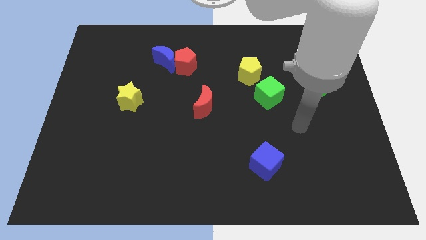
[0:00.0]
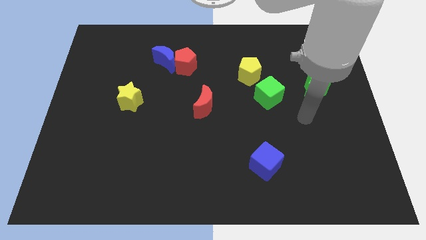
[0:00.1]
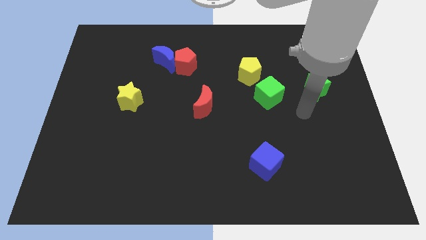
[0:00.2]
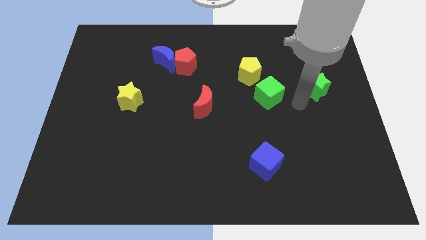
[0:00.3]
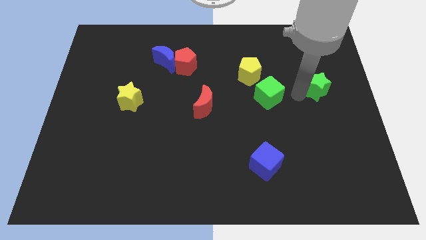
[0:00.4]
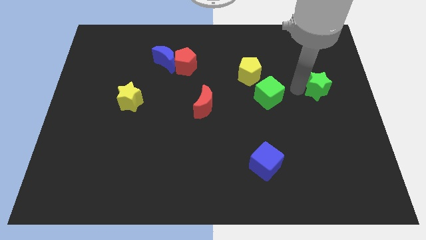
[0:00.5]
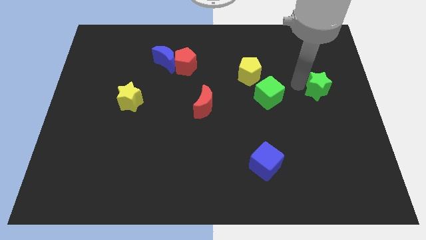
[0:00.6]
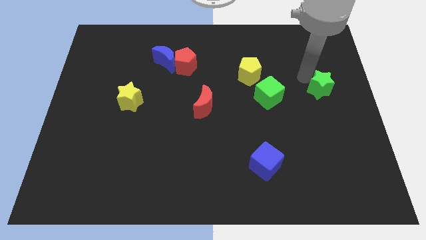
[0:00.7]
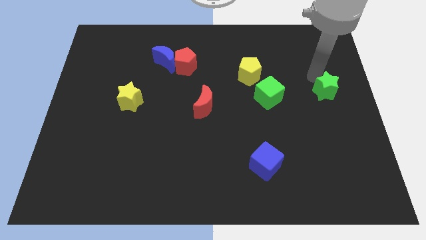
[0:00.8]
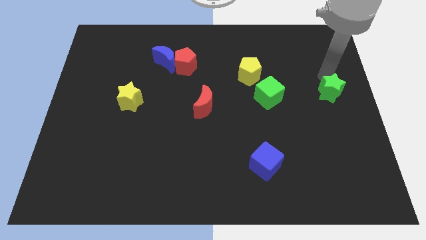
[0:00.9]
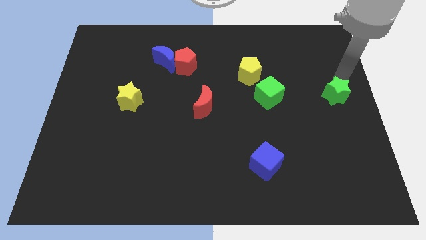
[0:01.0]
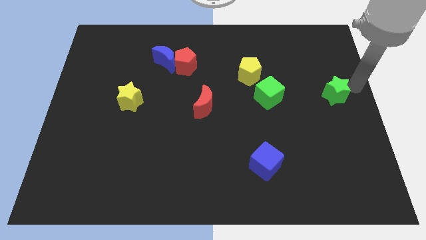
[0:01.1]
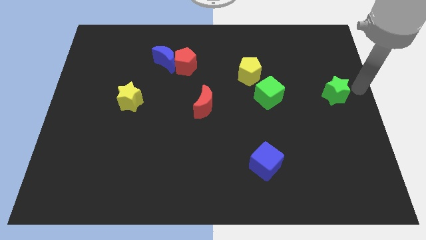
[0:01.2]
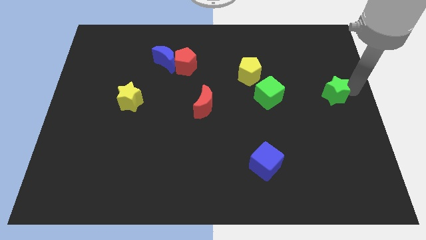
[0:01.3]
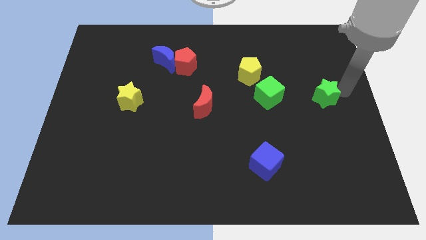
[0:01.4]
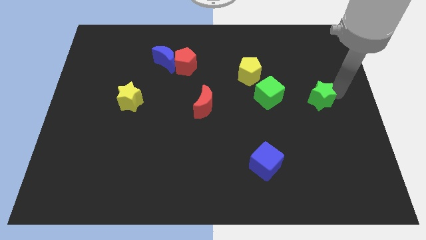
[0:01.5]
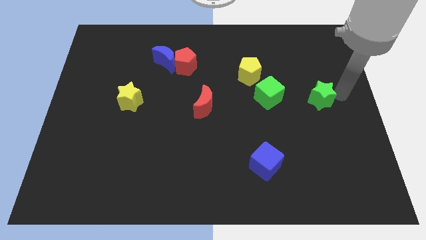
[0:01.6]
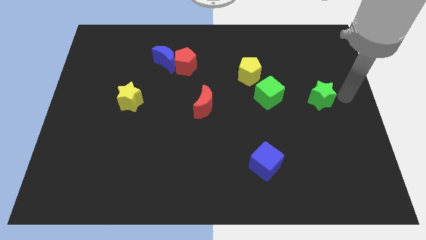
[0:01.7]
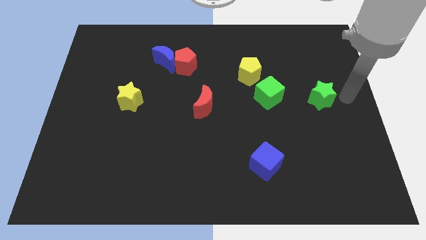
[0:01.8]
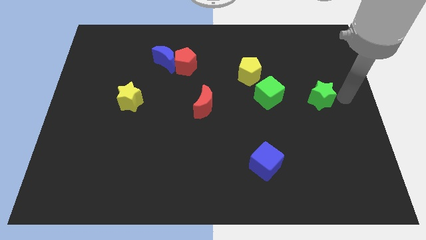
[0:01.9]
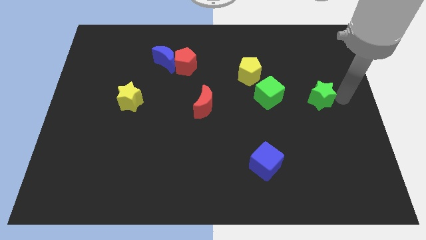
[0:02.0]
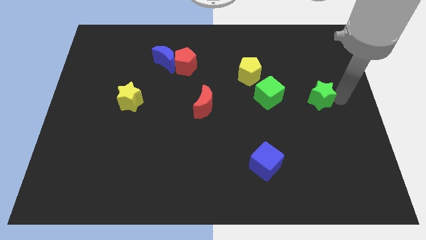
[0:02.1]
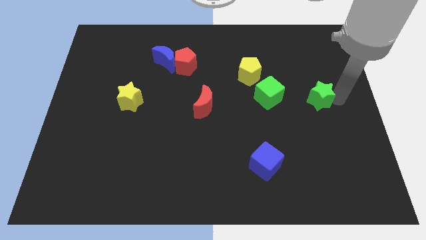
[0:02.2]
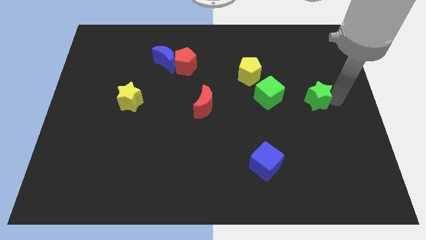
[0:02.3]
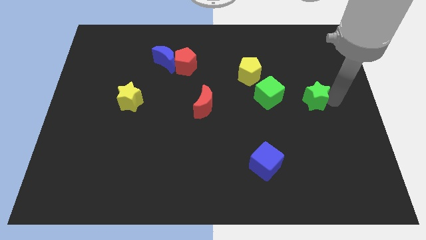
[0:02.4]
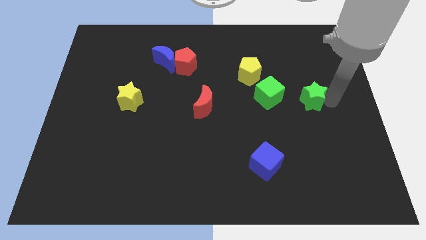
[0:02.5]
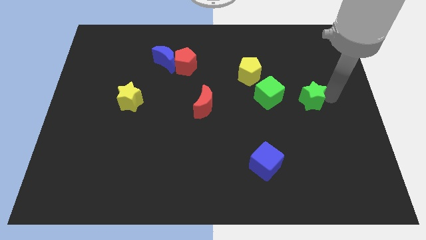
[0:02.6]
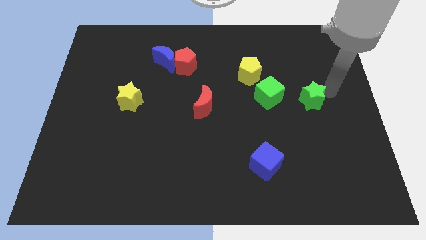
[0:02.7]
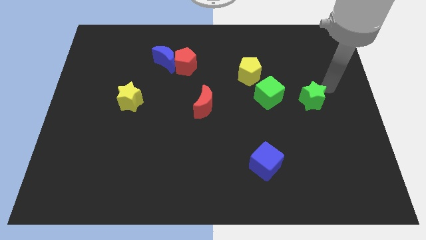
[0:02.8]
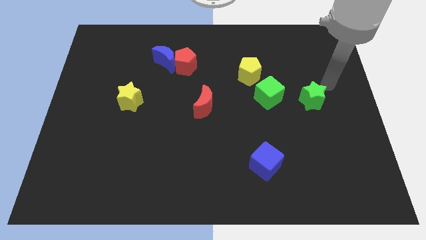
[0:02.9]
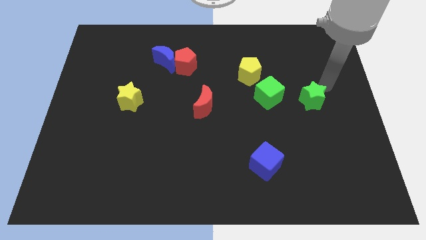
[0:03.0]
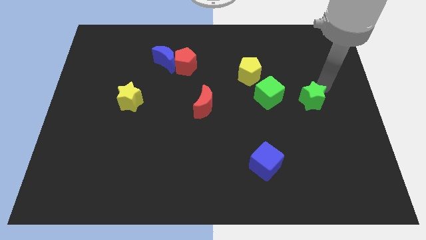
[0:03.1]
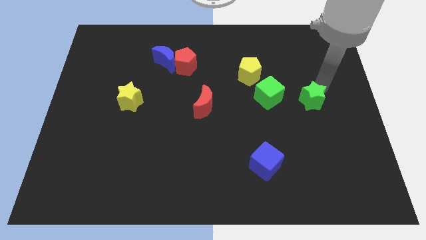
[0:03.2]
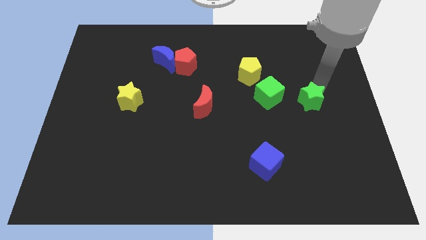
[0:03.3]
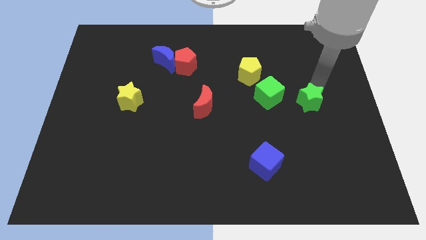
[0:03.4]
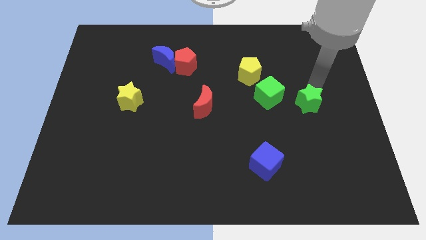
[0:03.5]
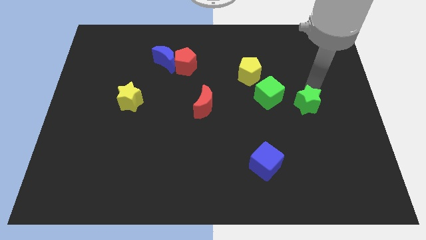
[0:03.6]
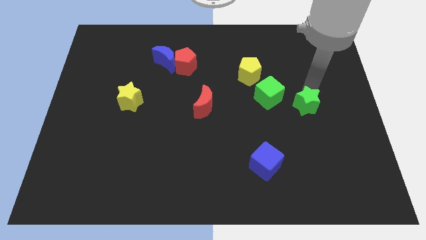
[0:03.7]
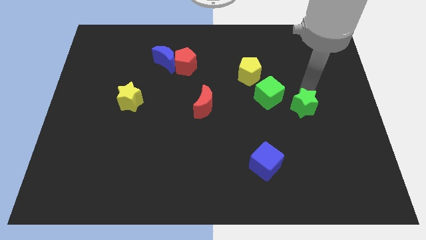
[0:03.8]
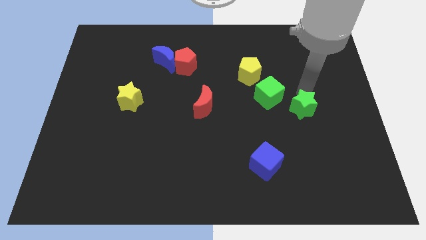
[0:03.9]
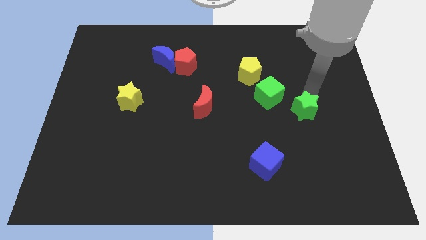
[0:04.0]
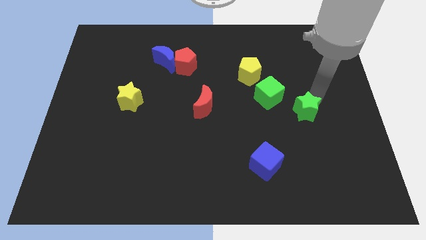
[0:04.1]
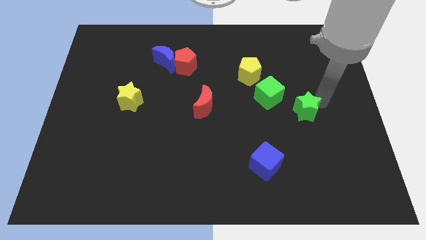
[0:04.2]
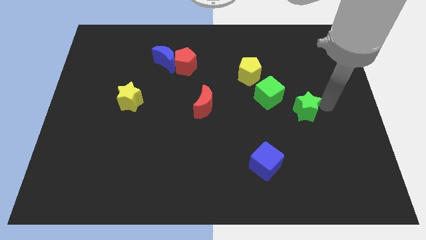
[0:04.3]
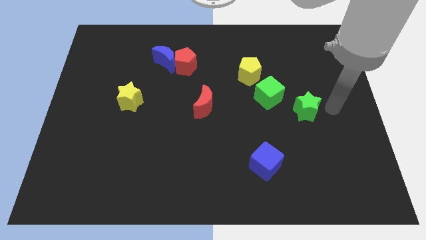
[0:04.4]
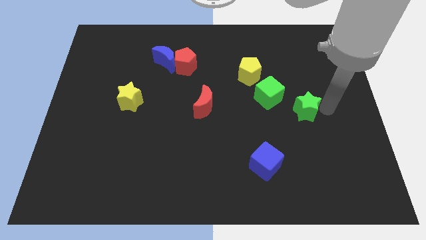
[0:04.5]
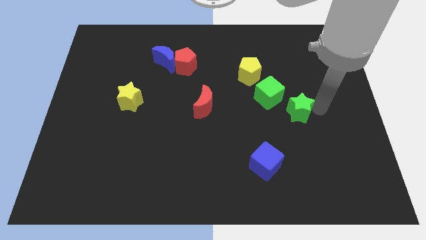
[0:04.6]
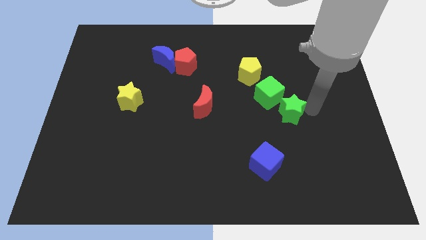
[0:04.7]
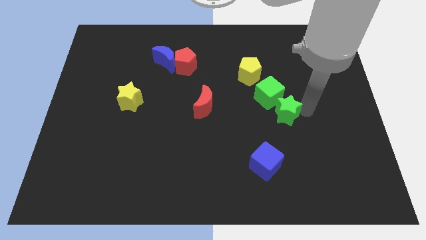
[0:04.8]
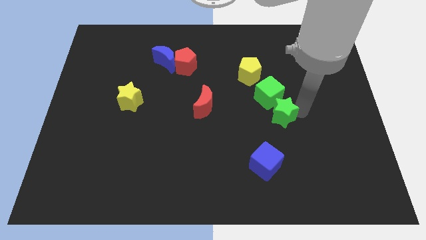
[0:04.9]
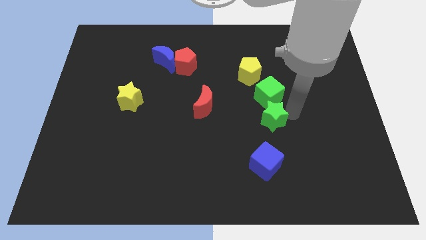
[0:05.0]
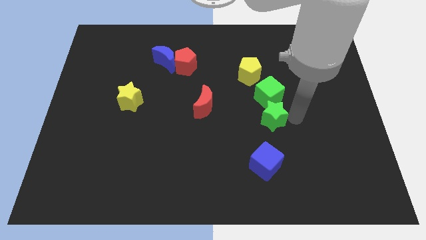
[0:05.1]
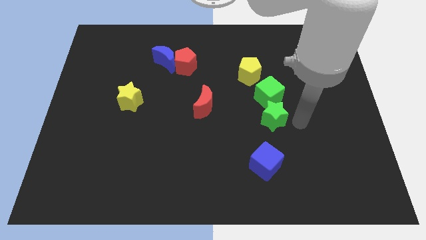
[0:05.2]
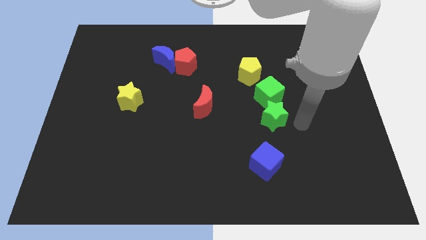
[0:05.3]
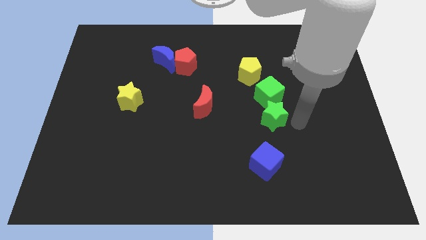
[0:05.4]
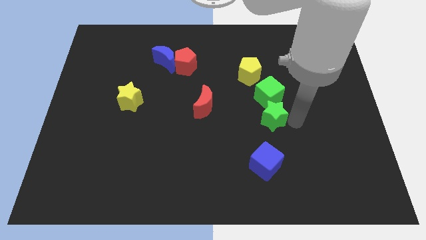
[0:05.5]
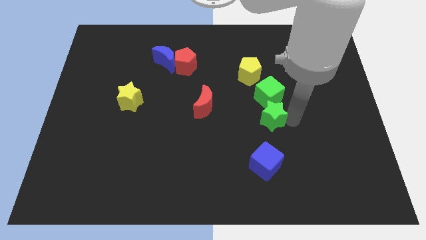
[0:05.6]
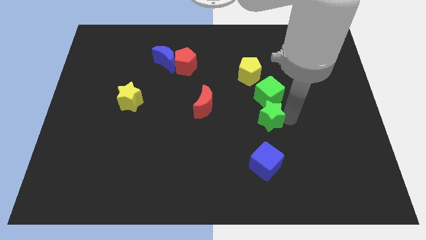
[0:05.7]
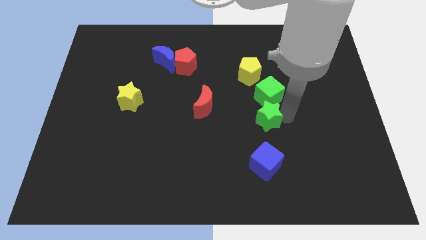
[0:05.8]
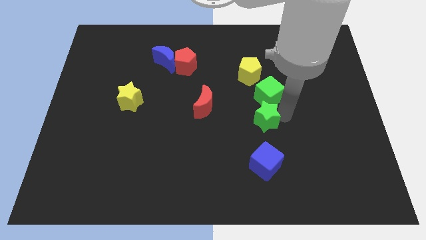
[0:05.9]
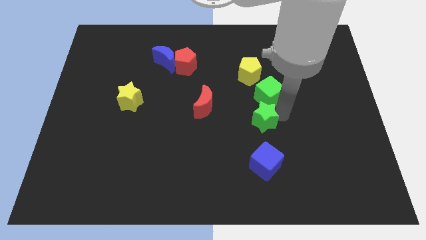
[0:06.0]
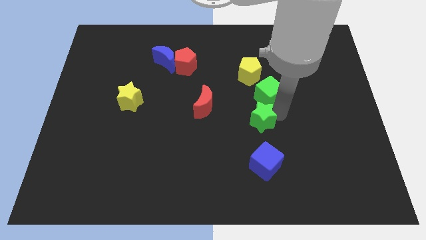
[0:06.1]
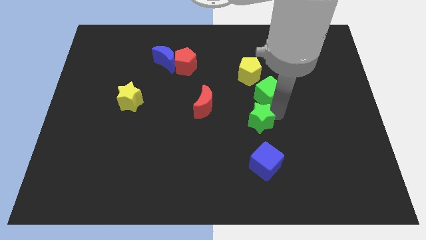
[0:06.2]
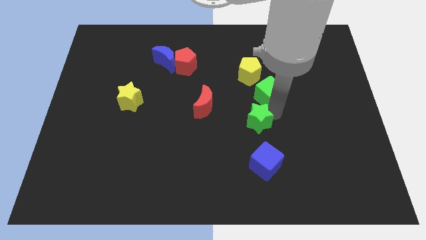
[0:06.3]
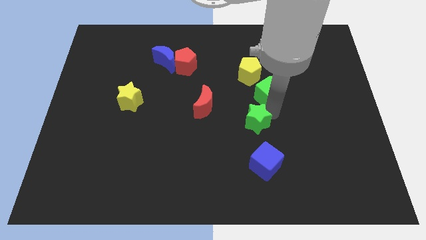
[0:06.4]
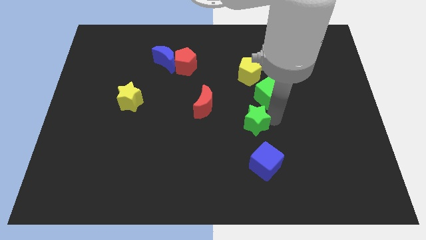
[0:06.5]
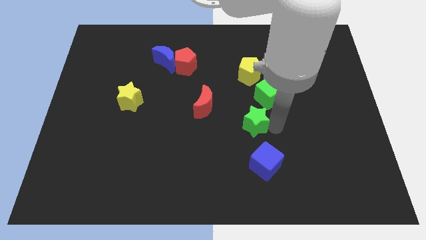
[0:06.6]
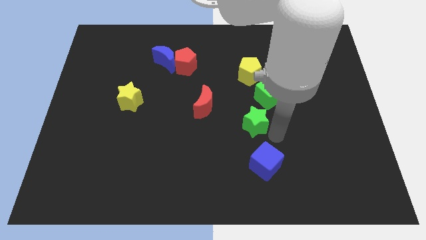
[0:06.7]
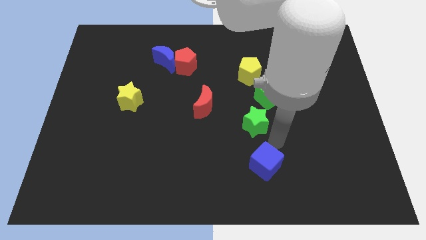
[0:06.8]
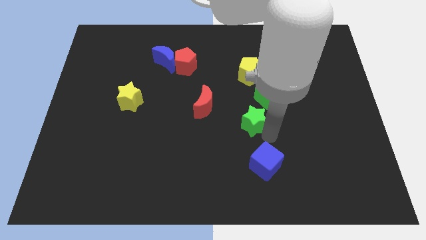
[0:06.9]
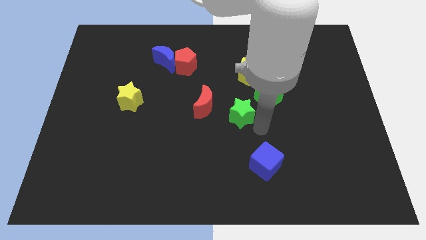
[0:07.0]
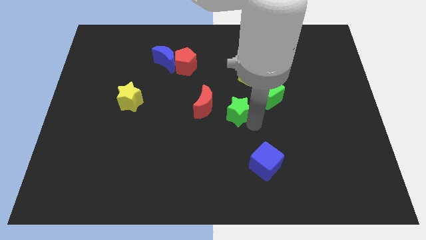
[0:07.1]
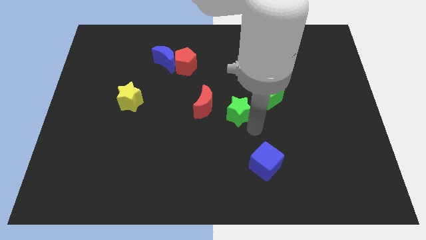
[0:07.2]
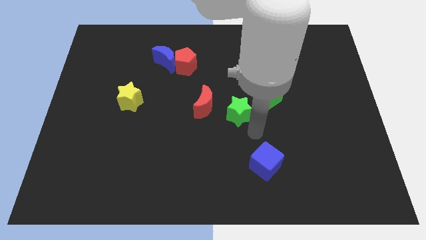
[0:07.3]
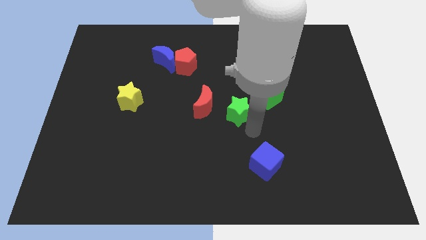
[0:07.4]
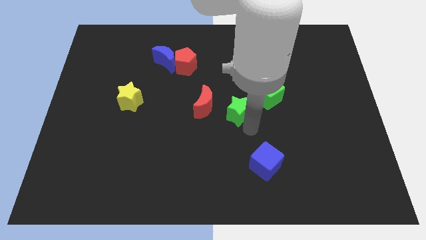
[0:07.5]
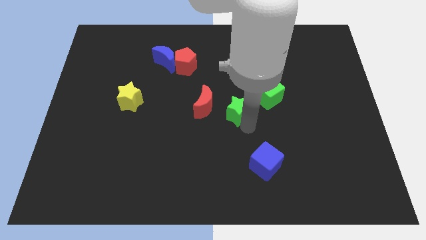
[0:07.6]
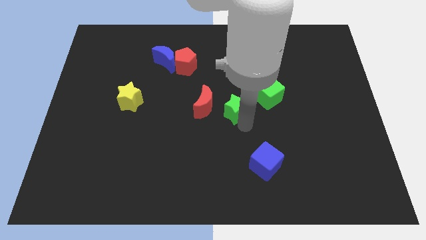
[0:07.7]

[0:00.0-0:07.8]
move the green star left of the green cube
